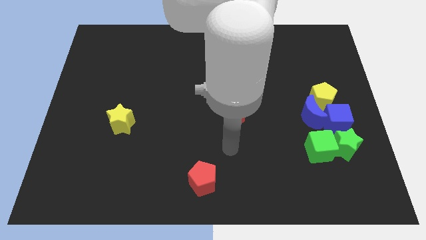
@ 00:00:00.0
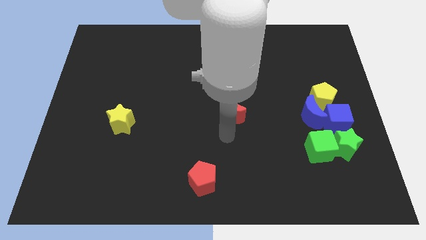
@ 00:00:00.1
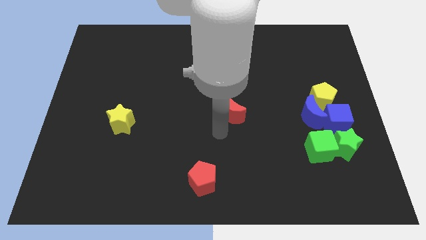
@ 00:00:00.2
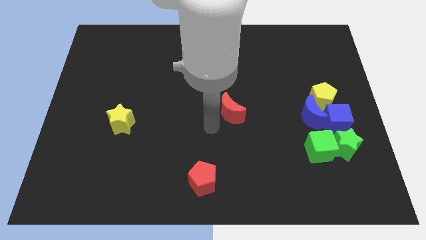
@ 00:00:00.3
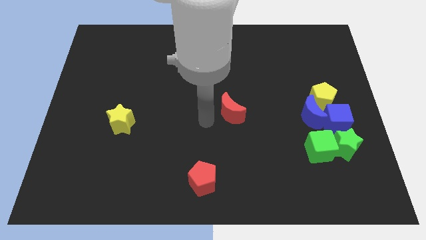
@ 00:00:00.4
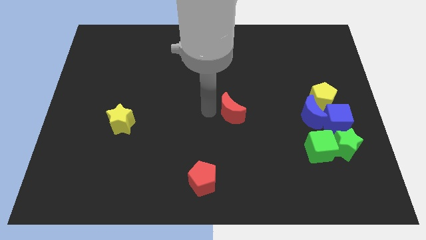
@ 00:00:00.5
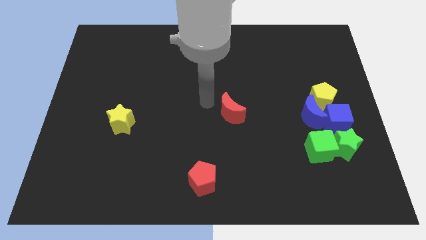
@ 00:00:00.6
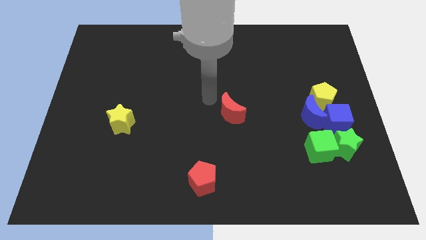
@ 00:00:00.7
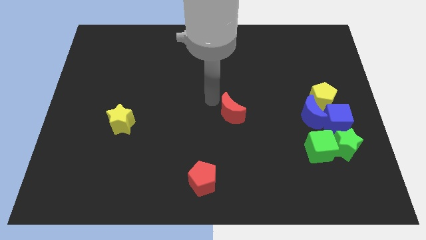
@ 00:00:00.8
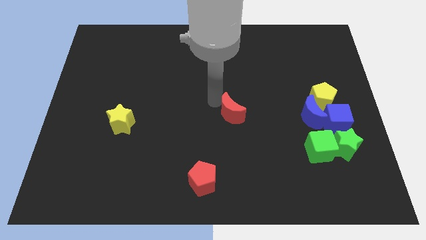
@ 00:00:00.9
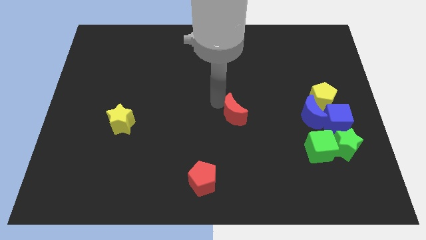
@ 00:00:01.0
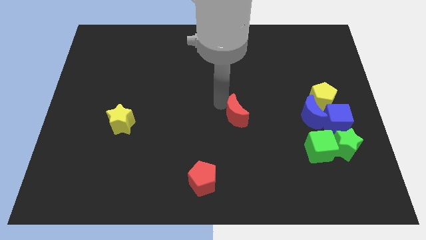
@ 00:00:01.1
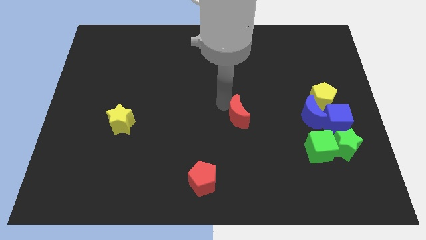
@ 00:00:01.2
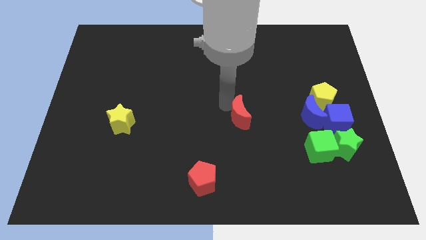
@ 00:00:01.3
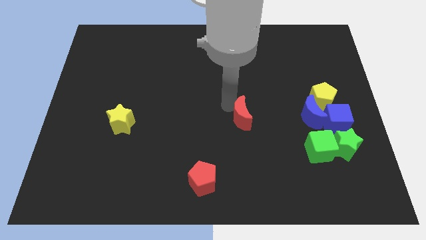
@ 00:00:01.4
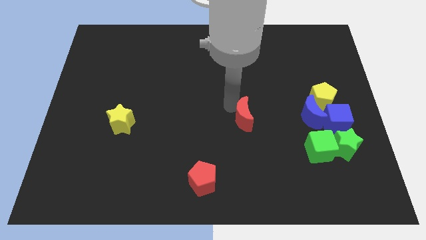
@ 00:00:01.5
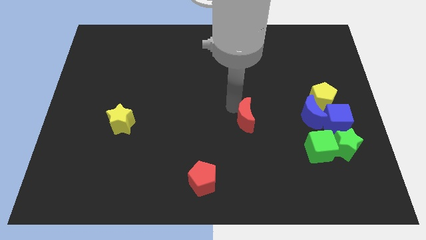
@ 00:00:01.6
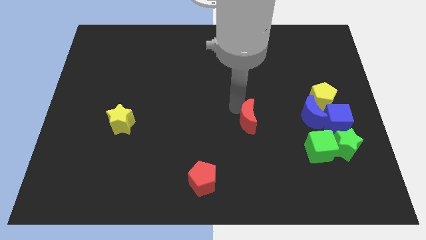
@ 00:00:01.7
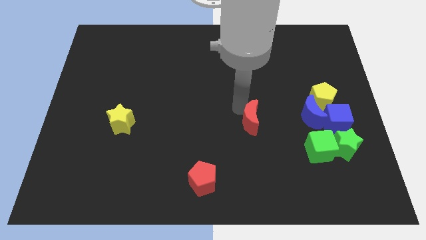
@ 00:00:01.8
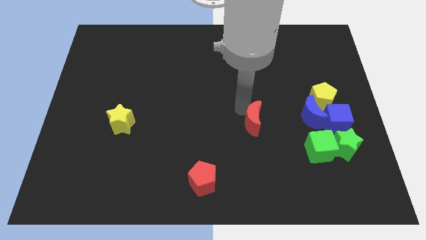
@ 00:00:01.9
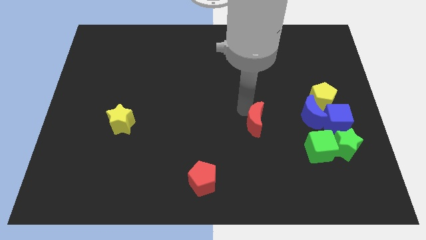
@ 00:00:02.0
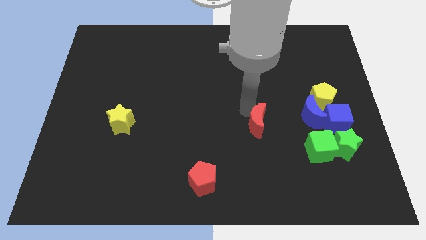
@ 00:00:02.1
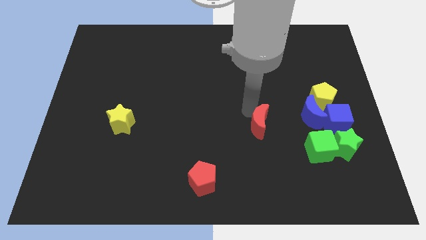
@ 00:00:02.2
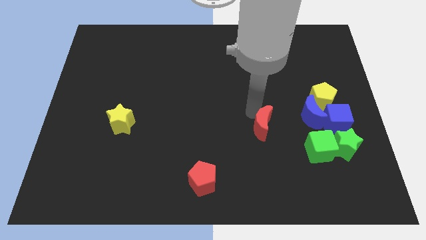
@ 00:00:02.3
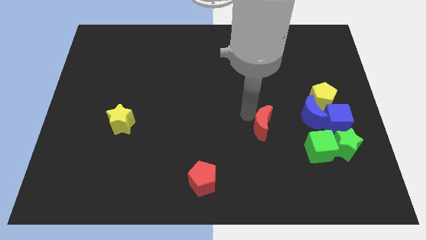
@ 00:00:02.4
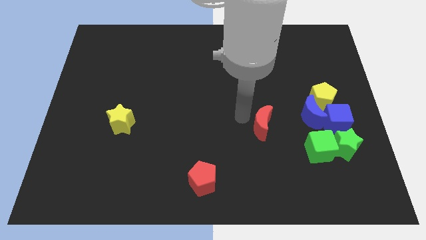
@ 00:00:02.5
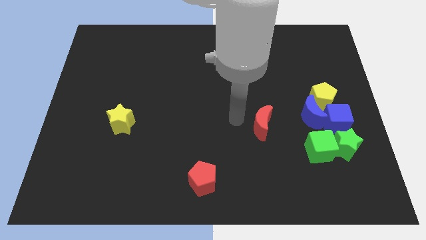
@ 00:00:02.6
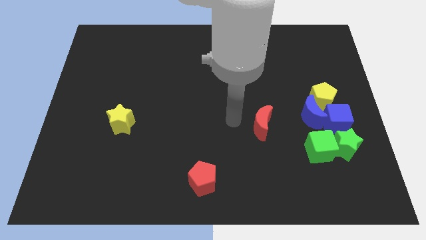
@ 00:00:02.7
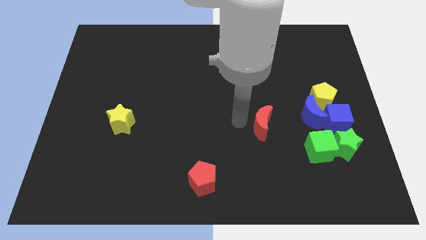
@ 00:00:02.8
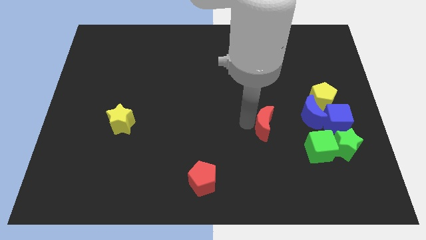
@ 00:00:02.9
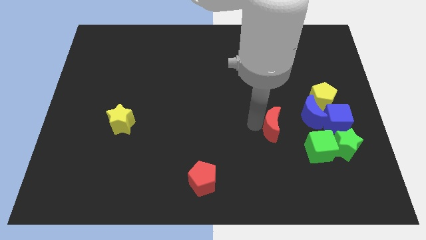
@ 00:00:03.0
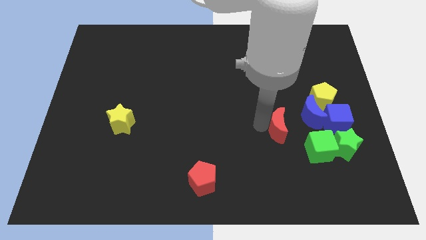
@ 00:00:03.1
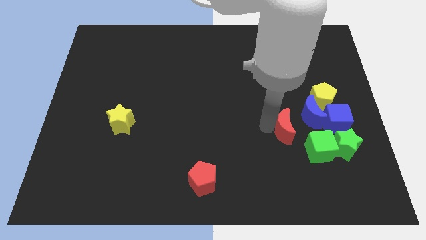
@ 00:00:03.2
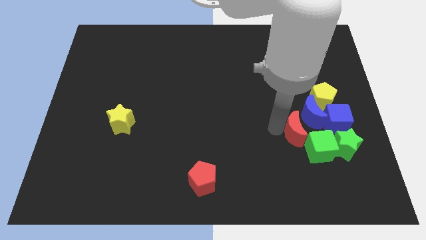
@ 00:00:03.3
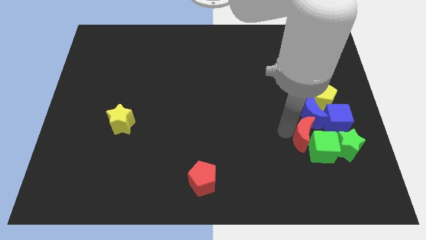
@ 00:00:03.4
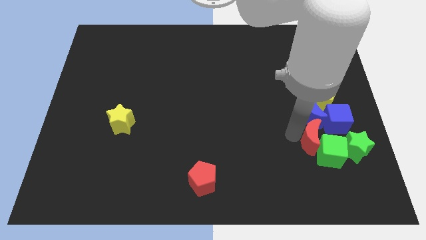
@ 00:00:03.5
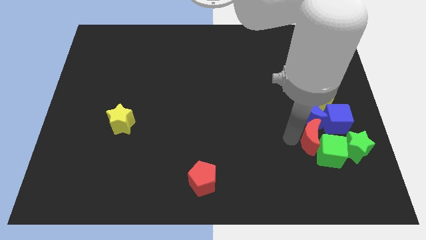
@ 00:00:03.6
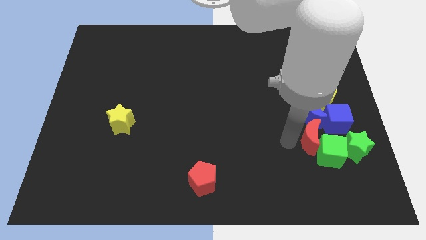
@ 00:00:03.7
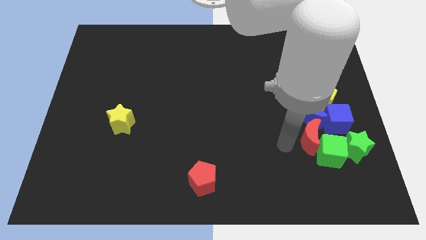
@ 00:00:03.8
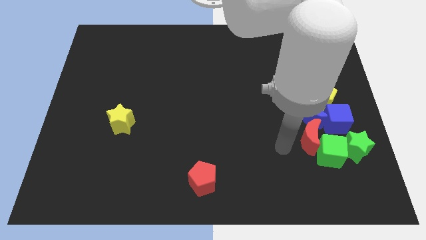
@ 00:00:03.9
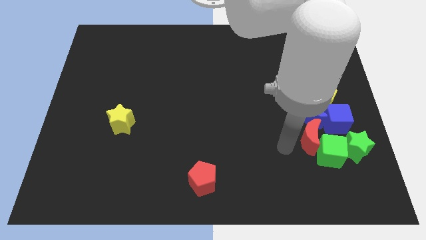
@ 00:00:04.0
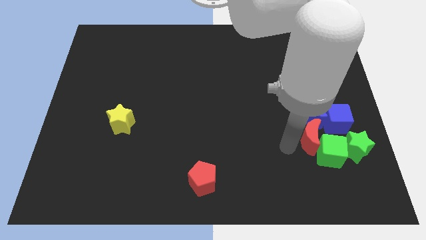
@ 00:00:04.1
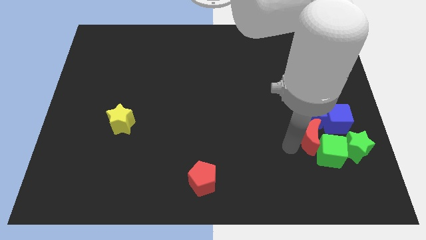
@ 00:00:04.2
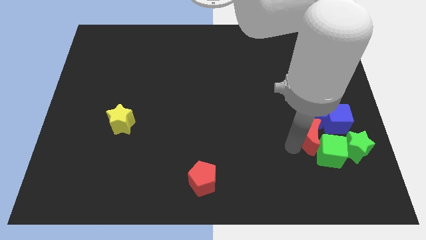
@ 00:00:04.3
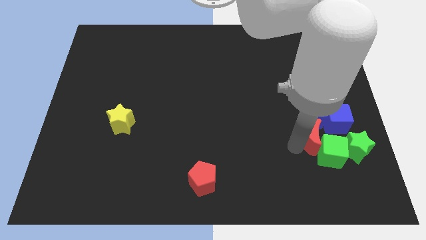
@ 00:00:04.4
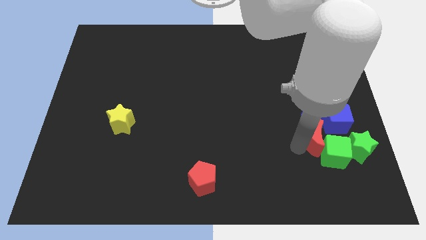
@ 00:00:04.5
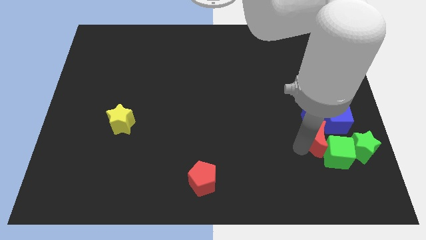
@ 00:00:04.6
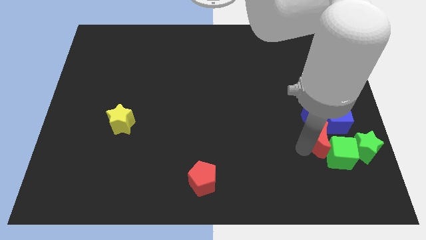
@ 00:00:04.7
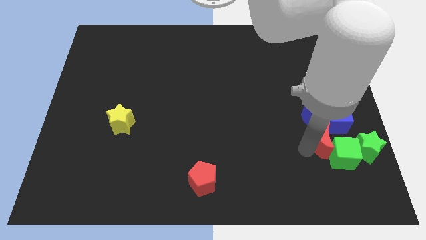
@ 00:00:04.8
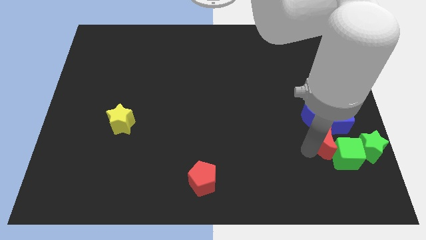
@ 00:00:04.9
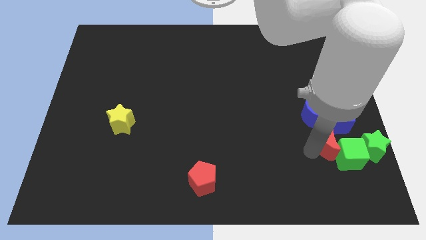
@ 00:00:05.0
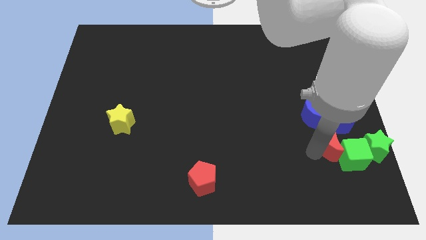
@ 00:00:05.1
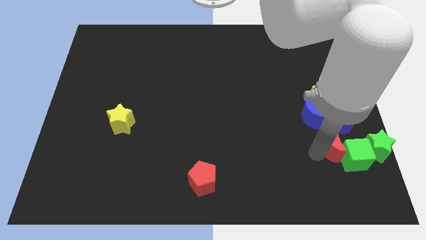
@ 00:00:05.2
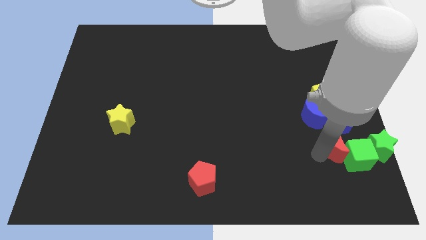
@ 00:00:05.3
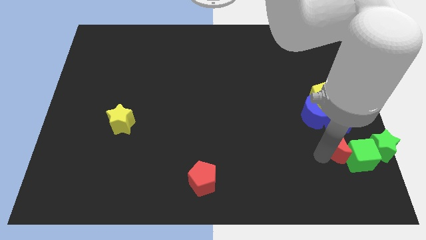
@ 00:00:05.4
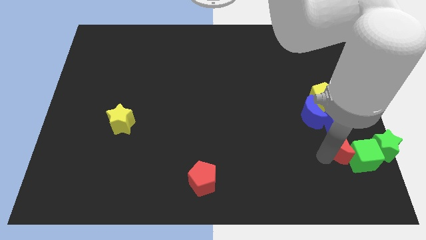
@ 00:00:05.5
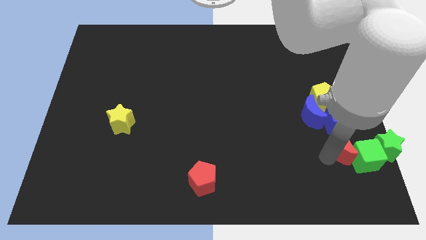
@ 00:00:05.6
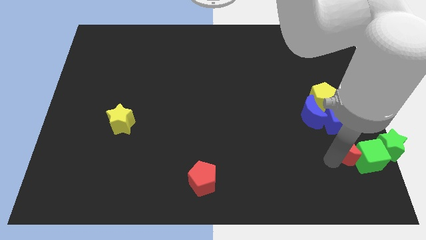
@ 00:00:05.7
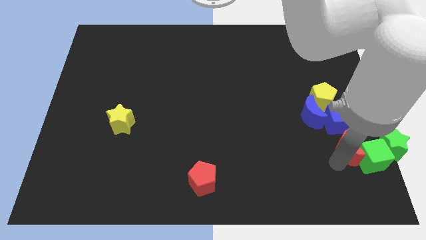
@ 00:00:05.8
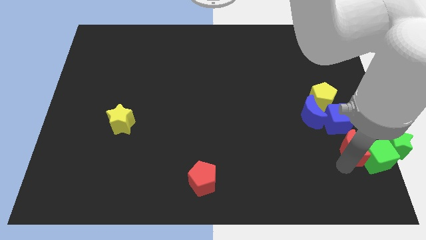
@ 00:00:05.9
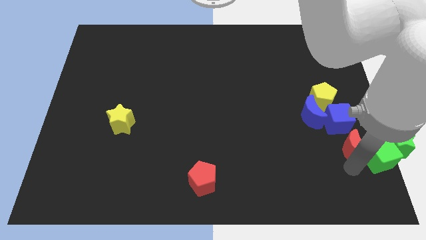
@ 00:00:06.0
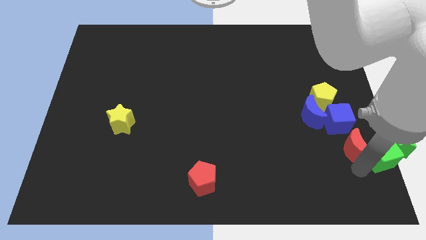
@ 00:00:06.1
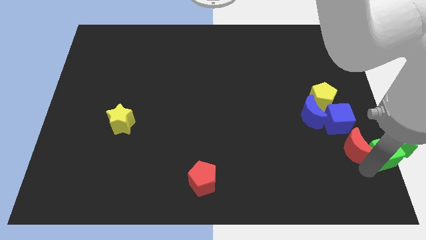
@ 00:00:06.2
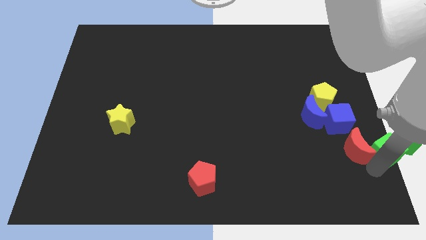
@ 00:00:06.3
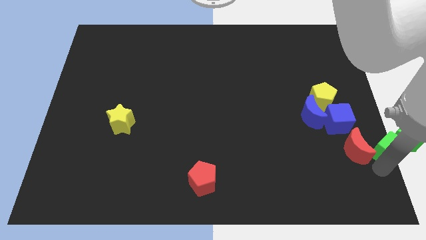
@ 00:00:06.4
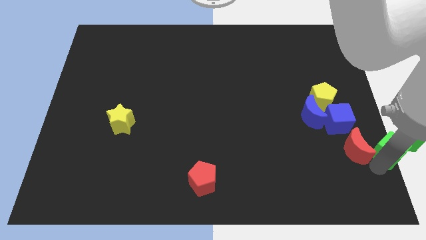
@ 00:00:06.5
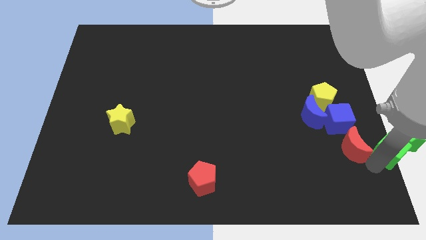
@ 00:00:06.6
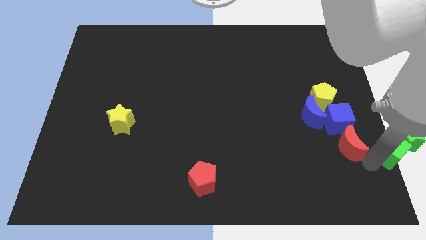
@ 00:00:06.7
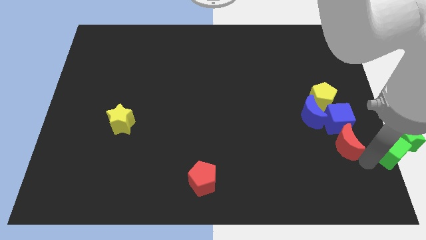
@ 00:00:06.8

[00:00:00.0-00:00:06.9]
slide the red moon close to the blue cube
